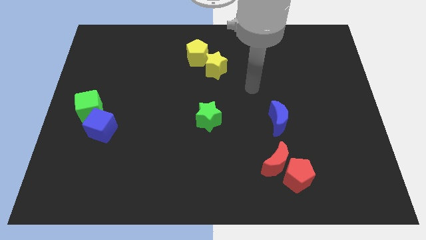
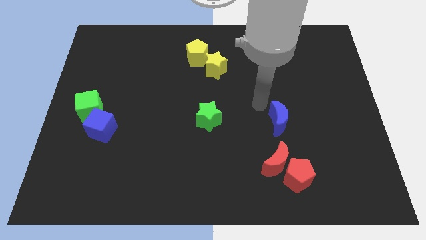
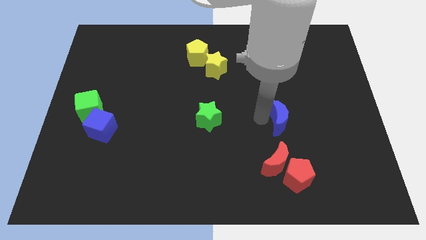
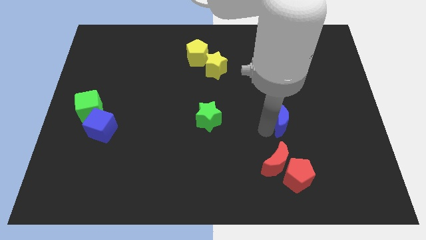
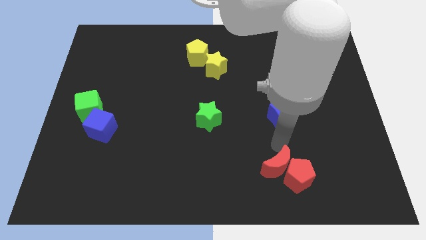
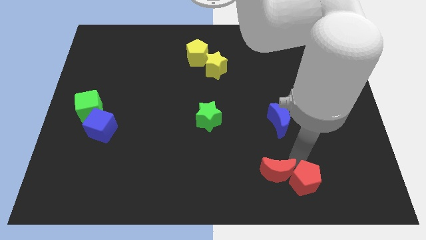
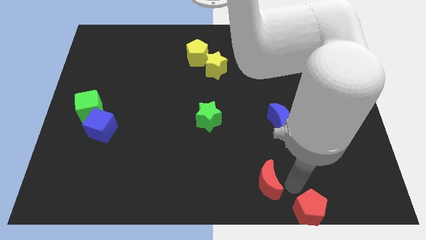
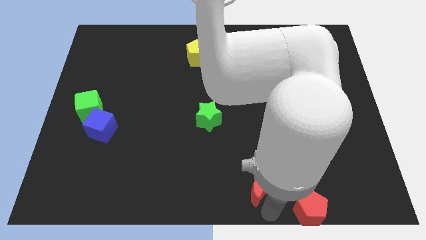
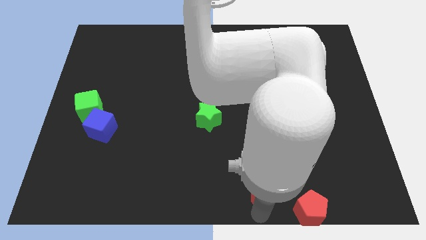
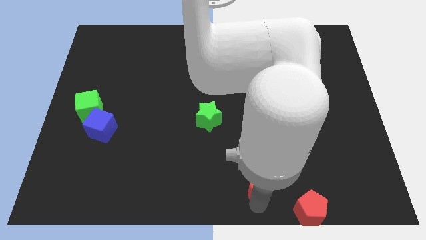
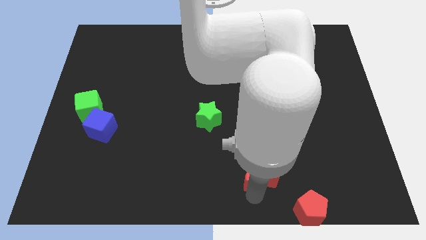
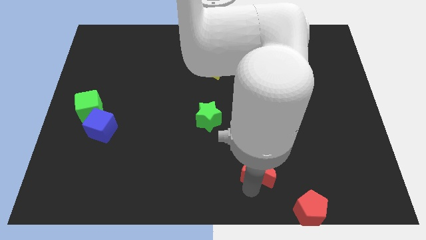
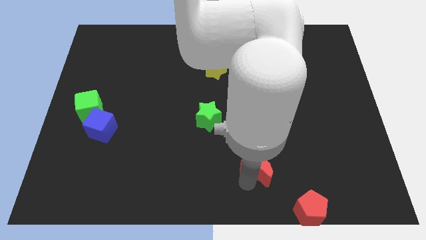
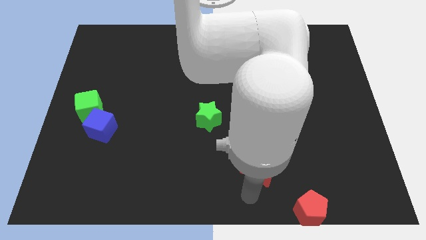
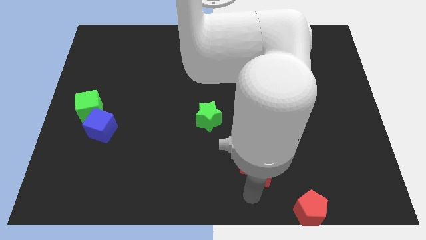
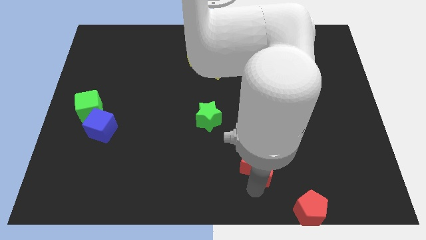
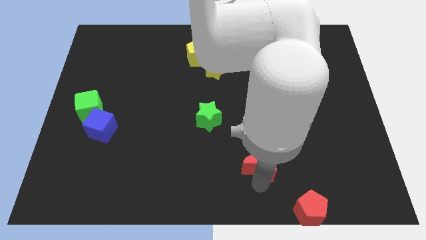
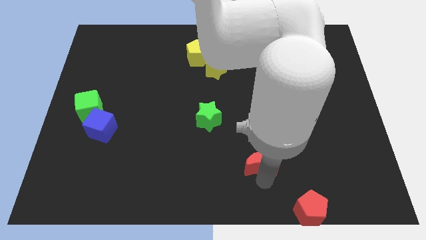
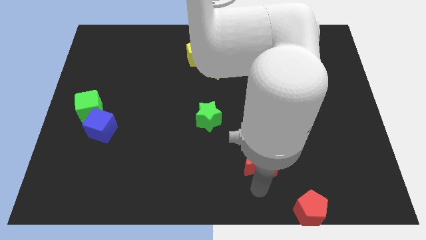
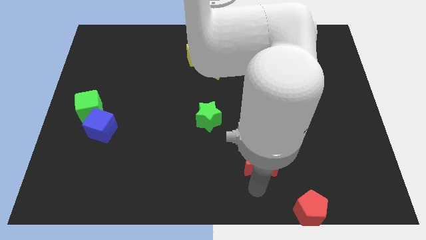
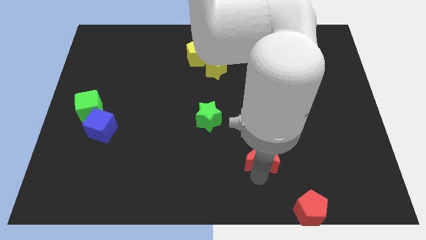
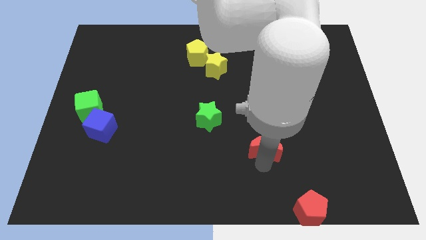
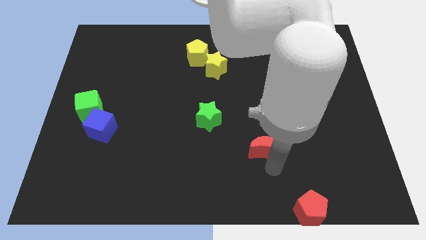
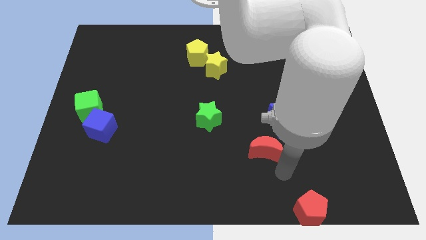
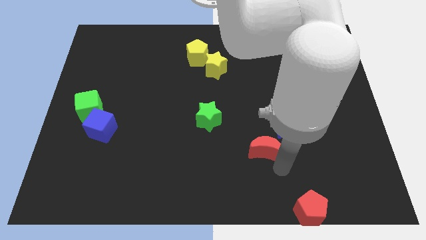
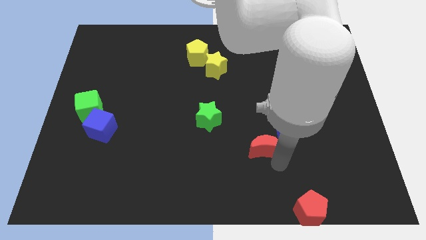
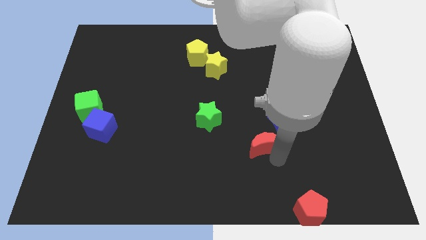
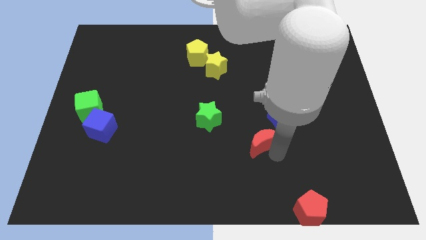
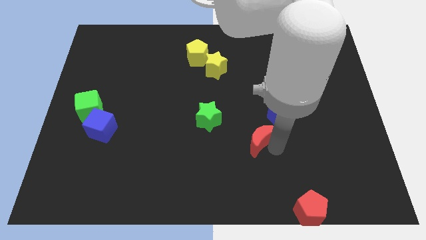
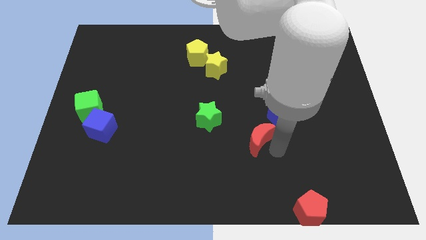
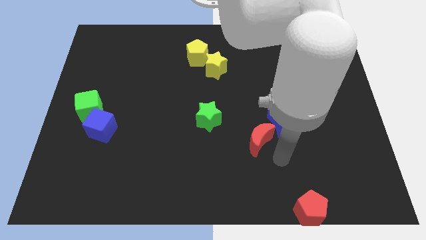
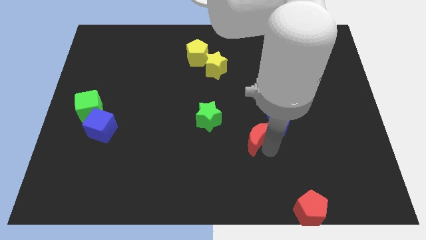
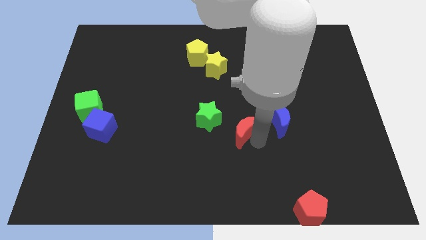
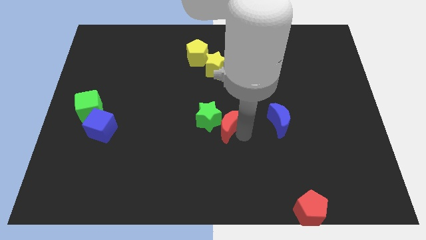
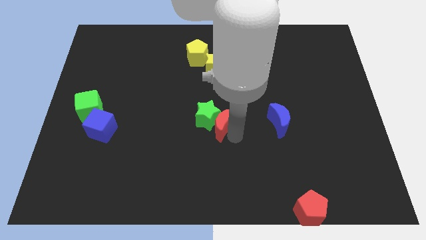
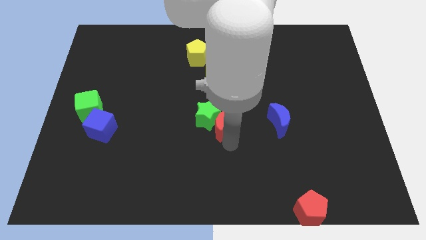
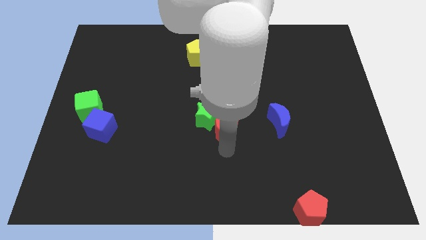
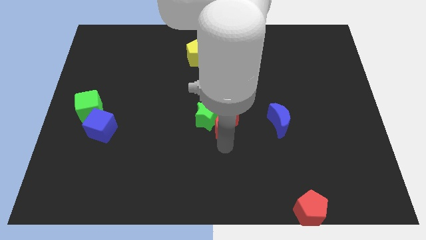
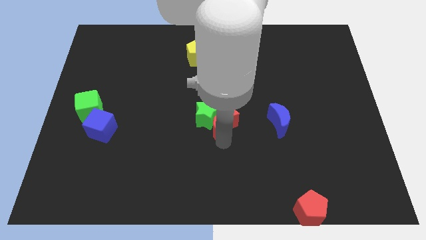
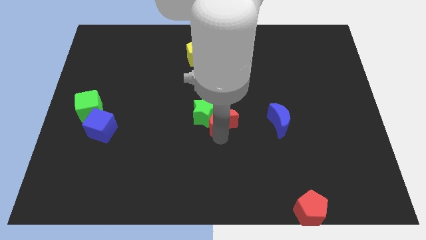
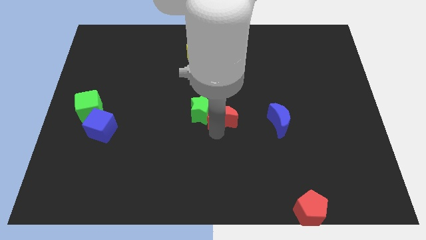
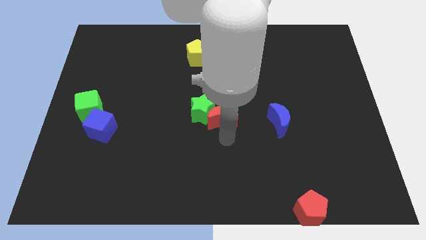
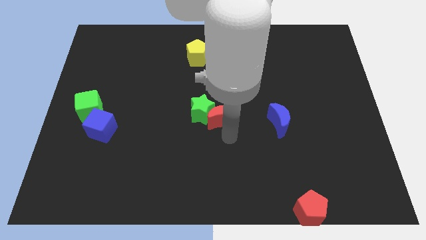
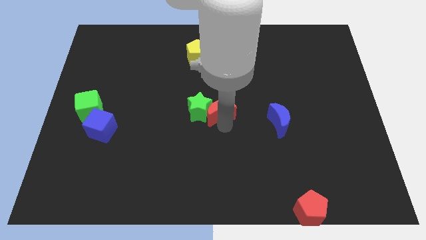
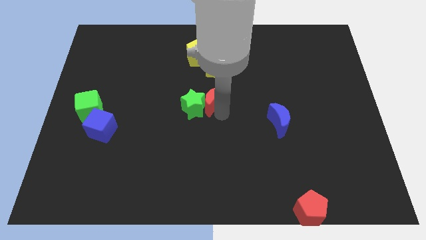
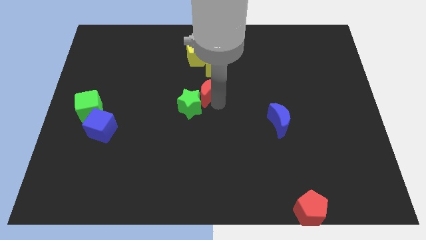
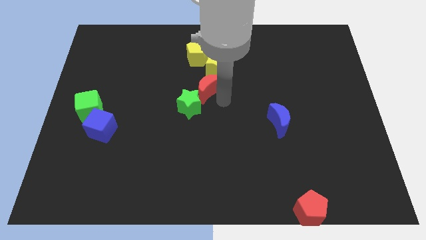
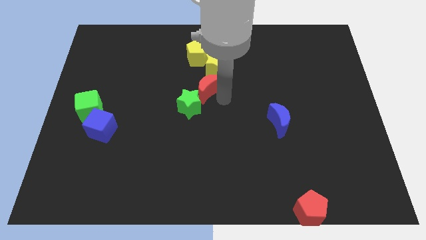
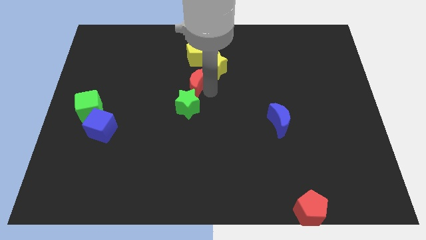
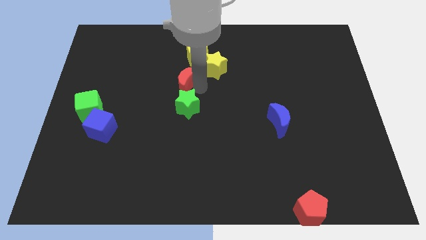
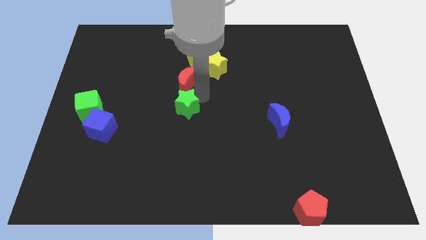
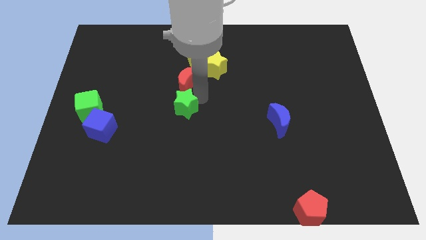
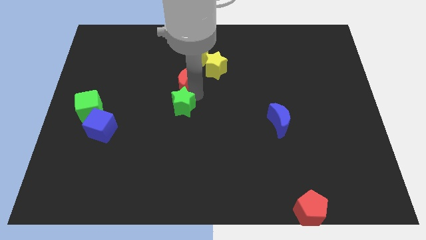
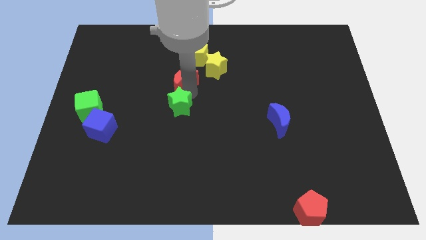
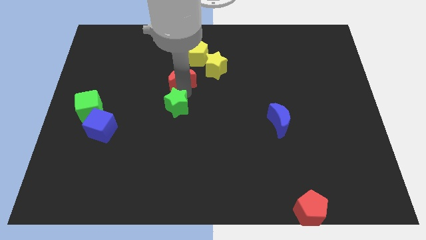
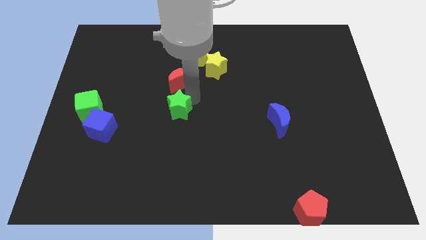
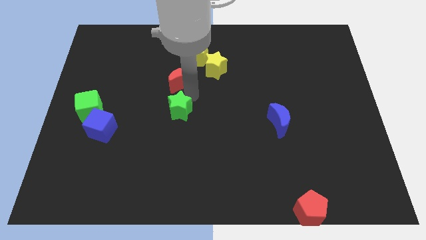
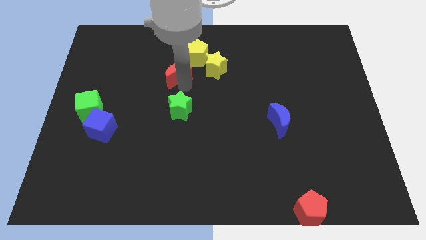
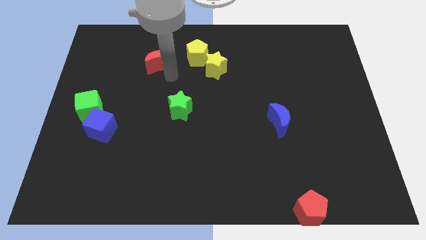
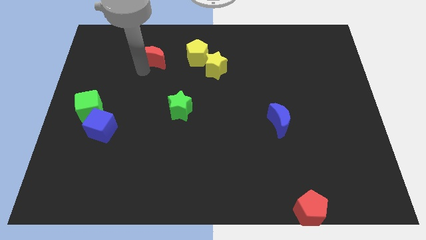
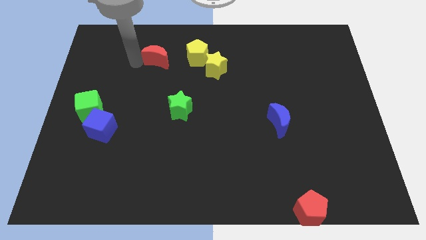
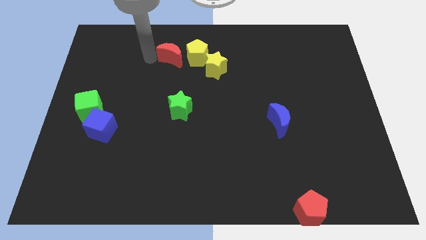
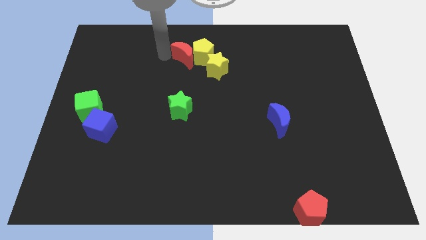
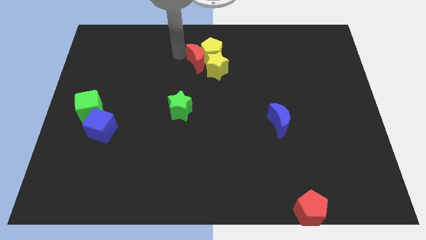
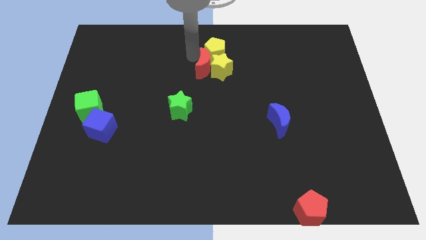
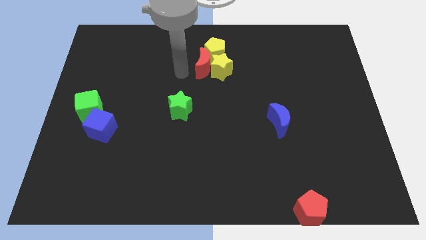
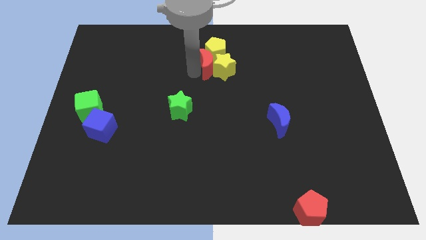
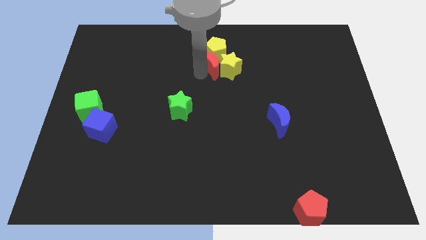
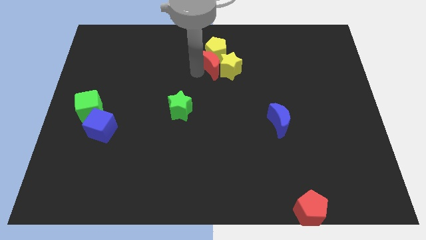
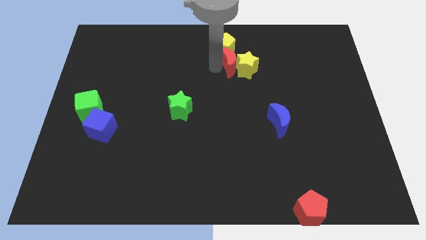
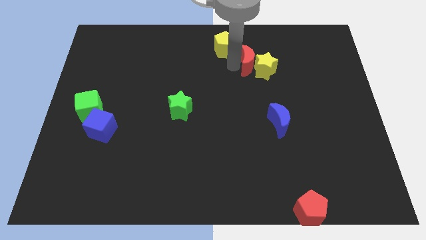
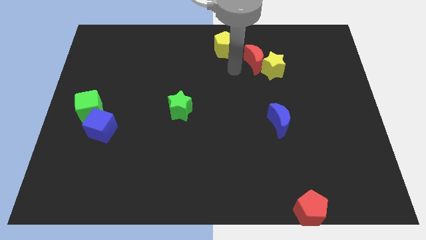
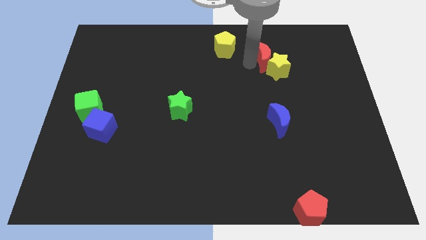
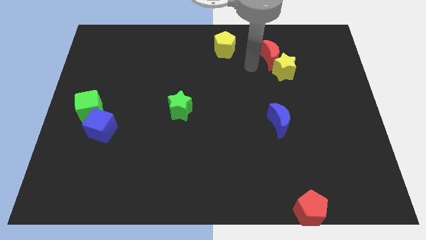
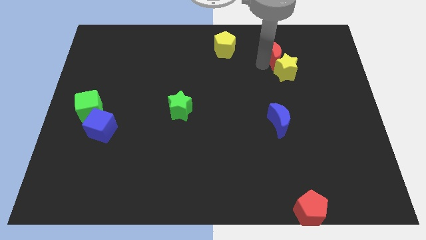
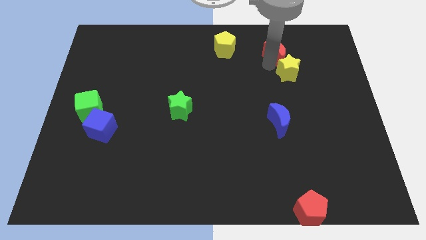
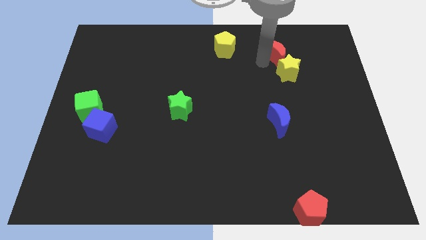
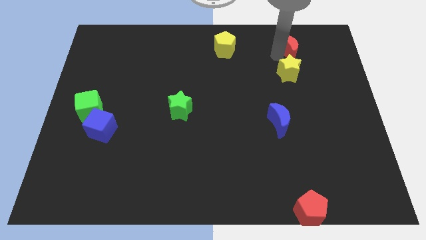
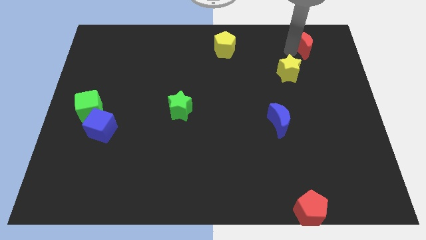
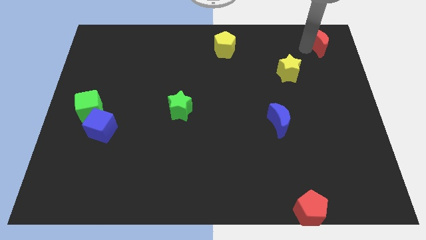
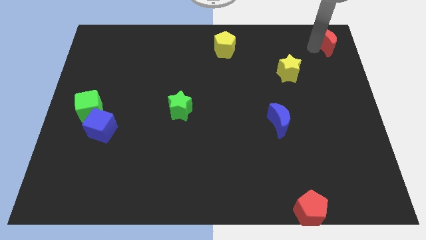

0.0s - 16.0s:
push the red moon to the top right
